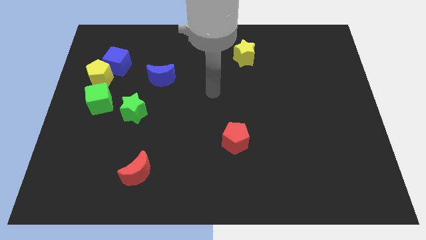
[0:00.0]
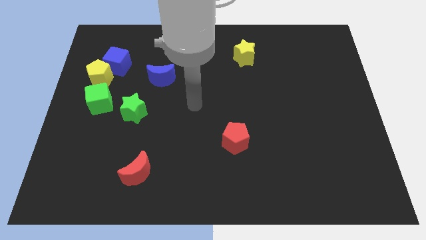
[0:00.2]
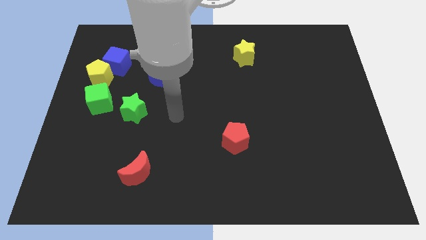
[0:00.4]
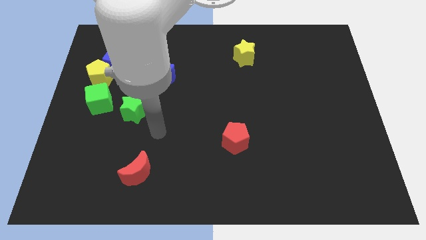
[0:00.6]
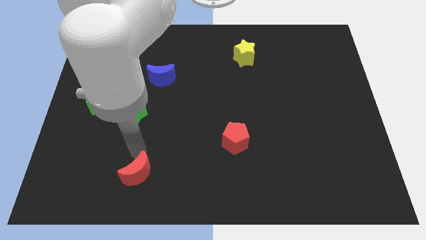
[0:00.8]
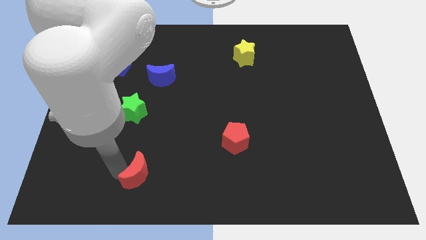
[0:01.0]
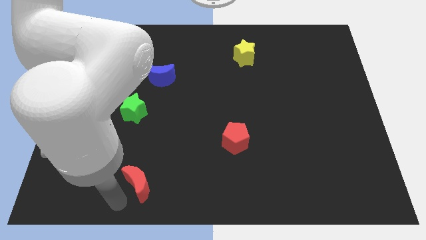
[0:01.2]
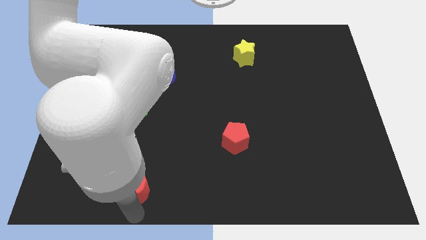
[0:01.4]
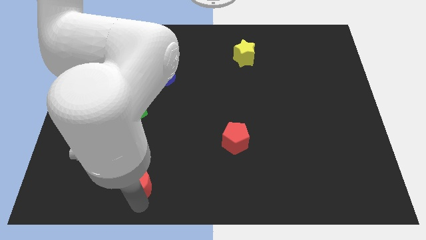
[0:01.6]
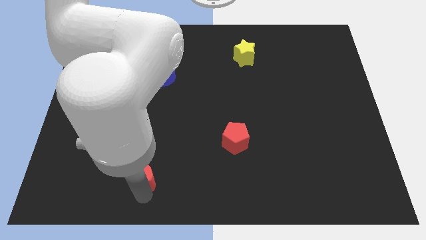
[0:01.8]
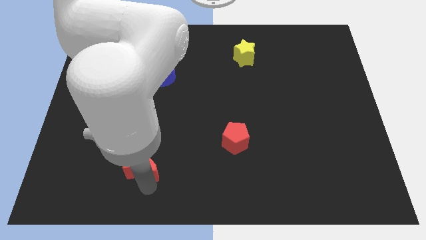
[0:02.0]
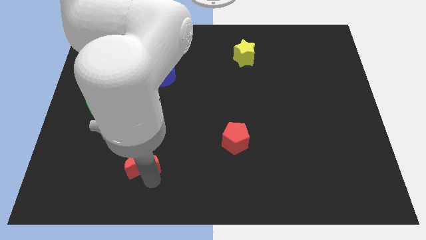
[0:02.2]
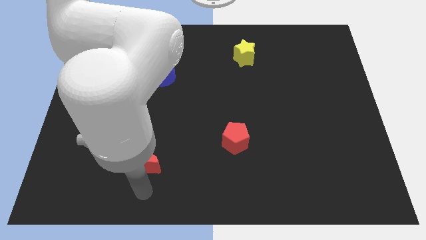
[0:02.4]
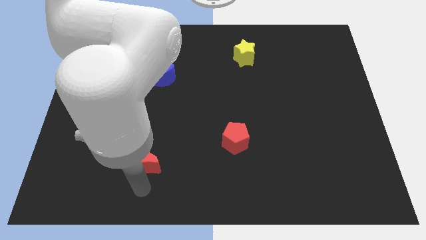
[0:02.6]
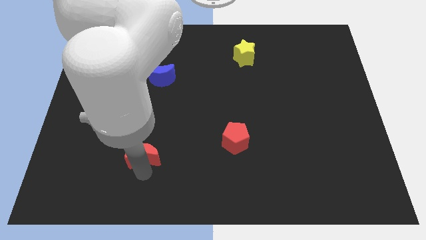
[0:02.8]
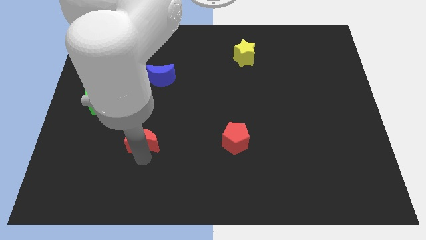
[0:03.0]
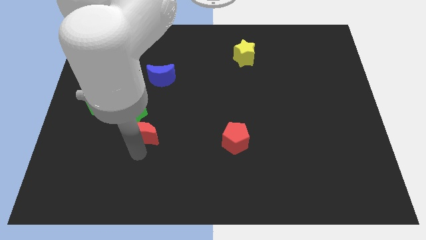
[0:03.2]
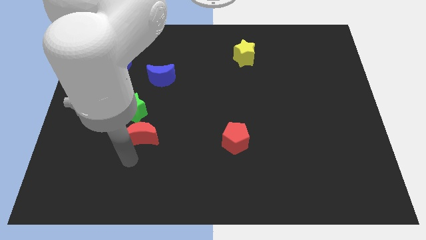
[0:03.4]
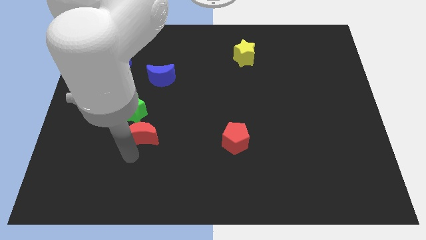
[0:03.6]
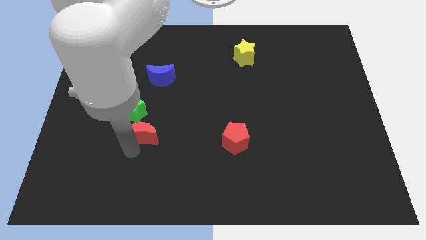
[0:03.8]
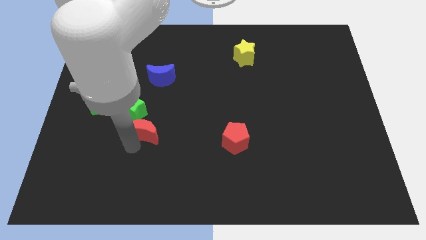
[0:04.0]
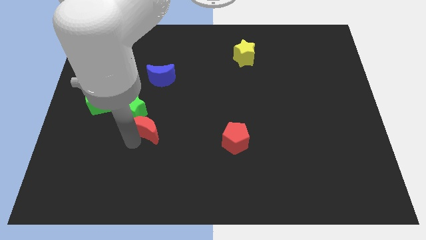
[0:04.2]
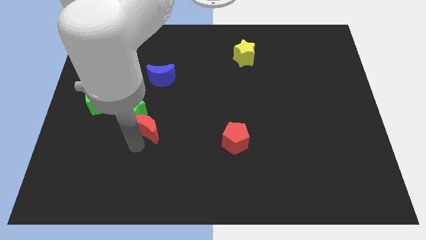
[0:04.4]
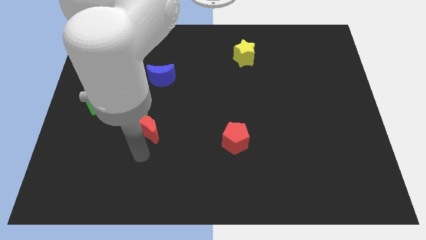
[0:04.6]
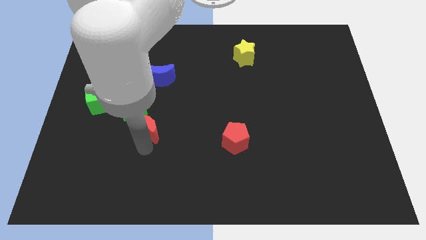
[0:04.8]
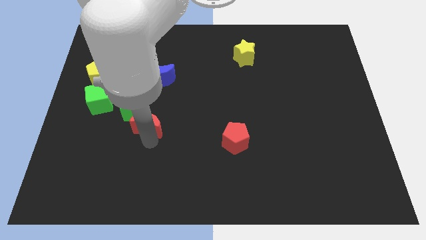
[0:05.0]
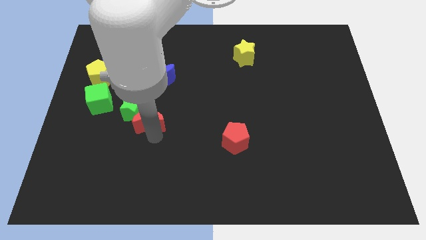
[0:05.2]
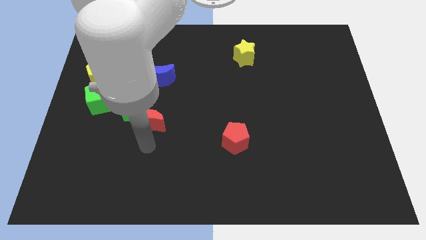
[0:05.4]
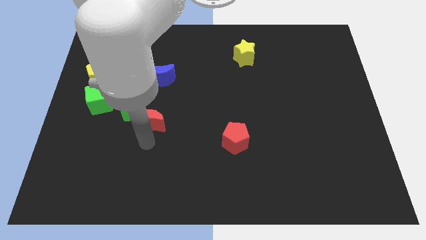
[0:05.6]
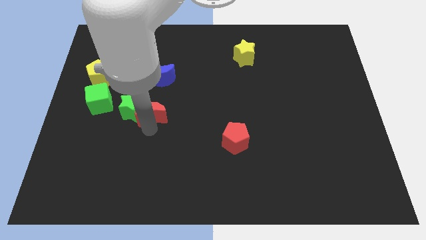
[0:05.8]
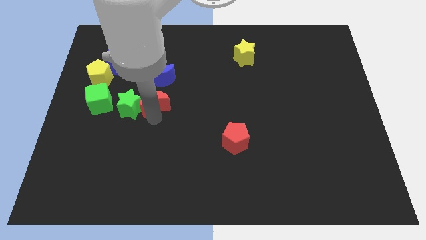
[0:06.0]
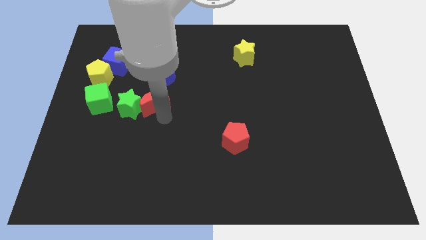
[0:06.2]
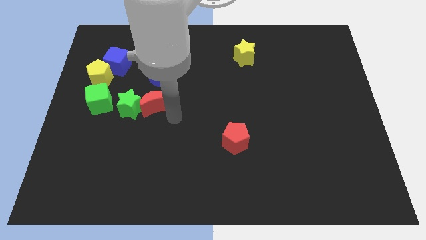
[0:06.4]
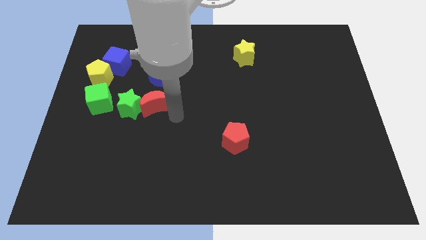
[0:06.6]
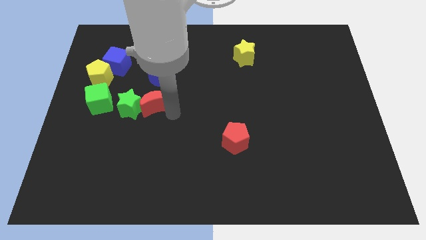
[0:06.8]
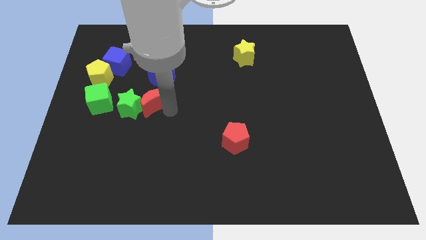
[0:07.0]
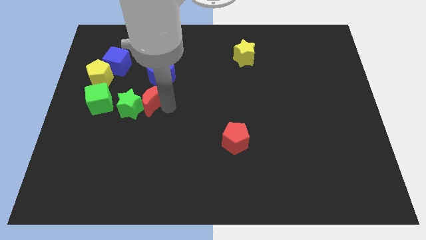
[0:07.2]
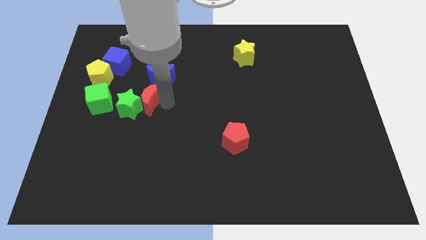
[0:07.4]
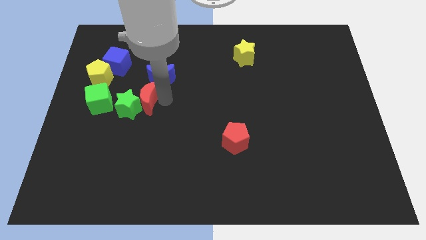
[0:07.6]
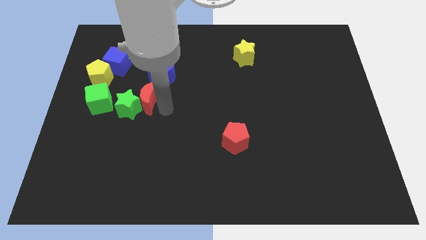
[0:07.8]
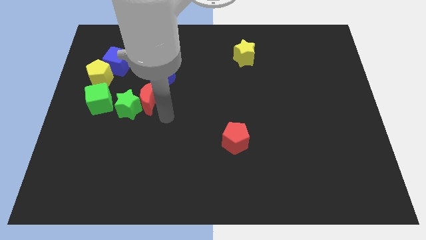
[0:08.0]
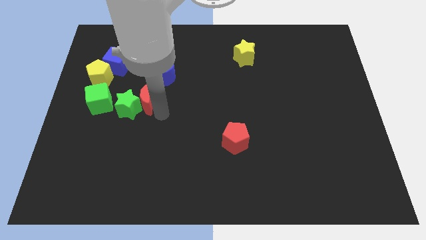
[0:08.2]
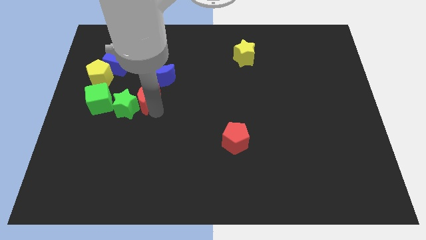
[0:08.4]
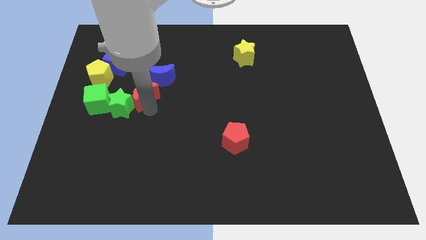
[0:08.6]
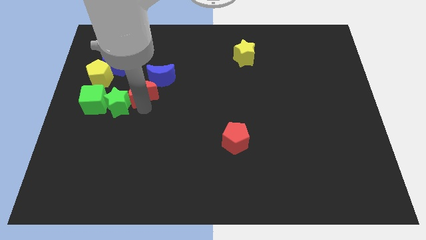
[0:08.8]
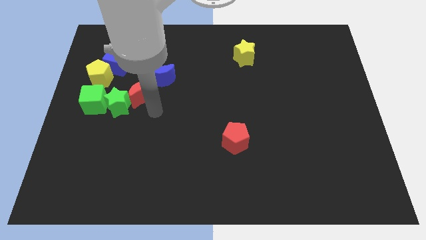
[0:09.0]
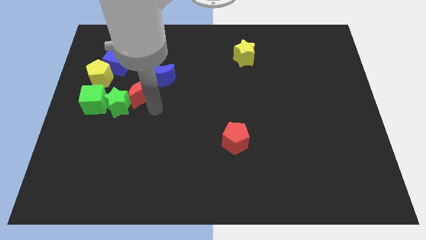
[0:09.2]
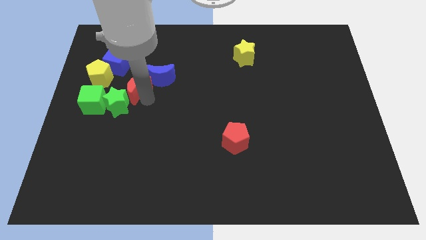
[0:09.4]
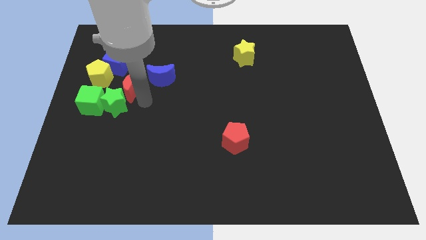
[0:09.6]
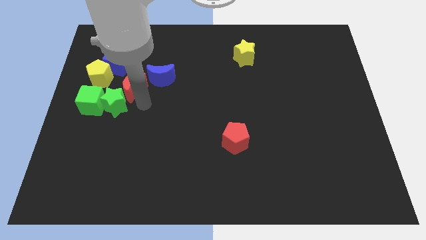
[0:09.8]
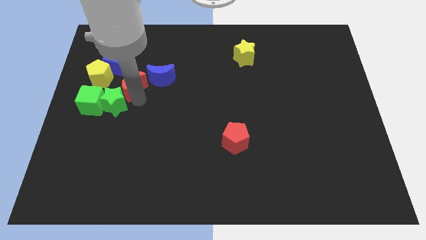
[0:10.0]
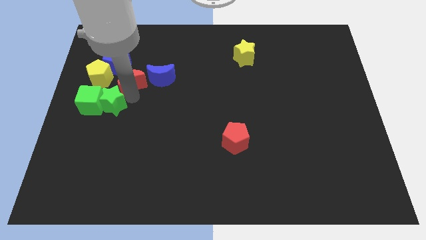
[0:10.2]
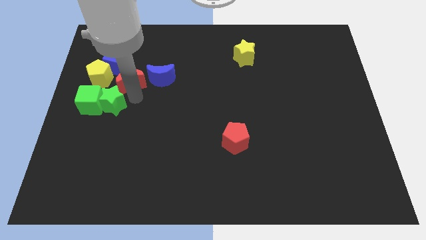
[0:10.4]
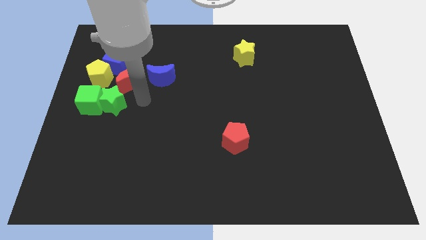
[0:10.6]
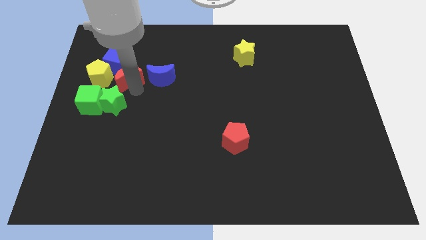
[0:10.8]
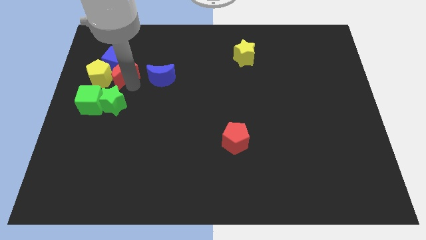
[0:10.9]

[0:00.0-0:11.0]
move the red moon to the blue cube
